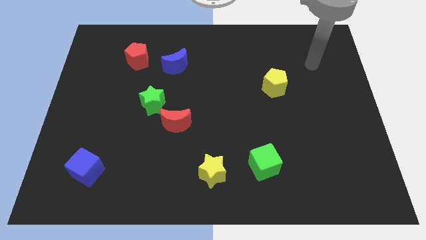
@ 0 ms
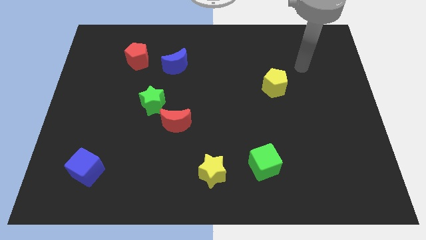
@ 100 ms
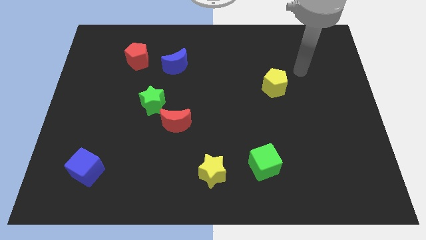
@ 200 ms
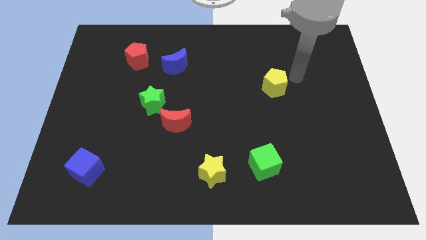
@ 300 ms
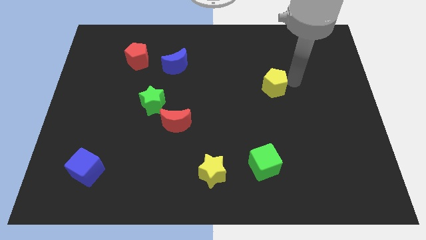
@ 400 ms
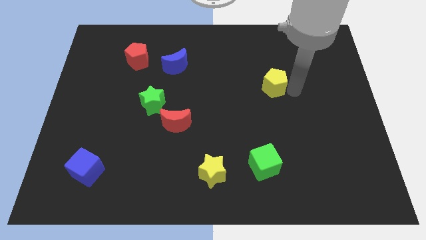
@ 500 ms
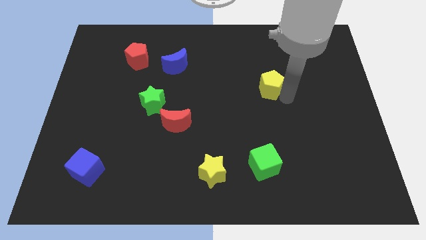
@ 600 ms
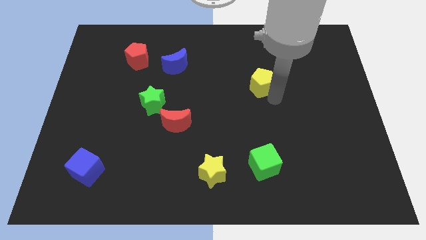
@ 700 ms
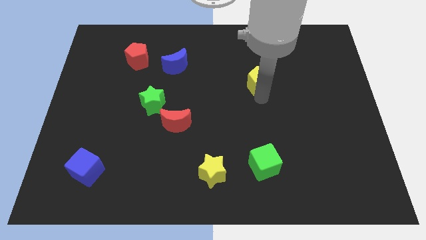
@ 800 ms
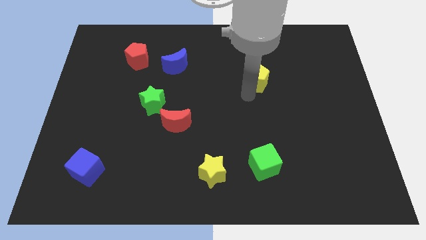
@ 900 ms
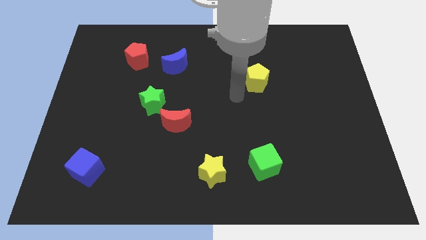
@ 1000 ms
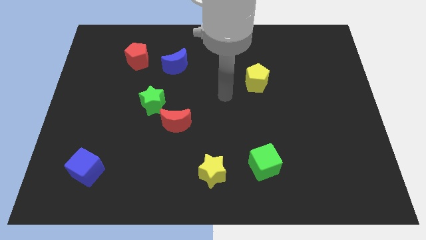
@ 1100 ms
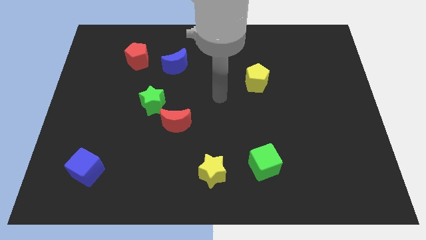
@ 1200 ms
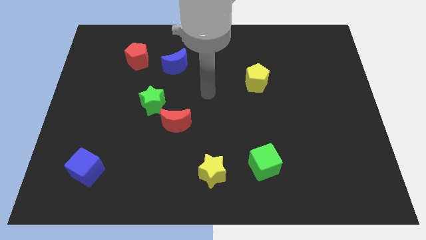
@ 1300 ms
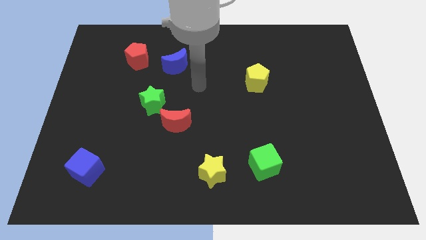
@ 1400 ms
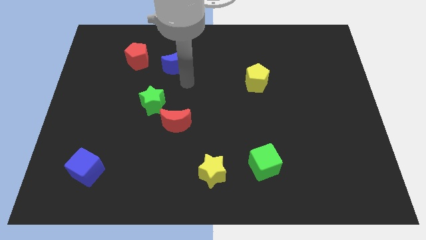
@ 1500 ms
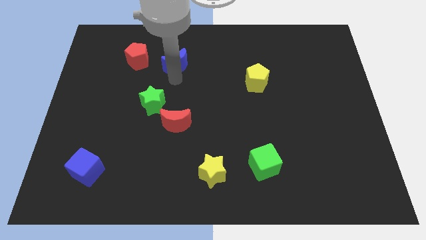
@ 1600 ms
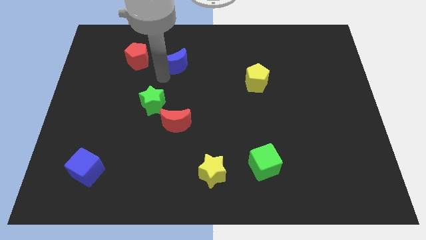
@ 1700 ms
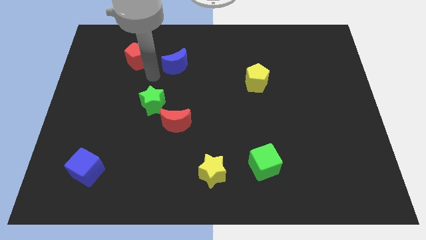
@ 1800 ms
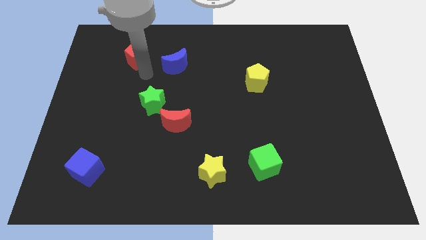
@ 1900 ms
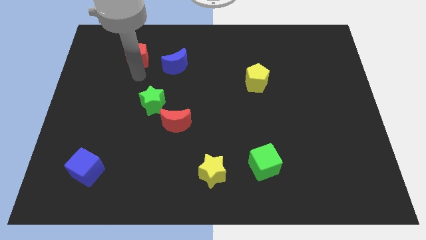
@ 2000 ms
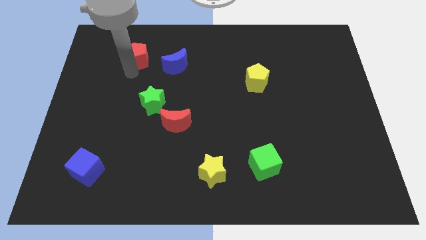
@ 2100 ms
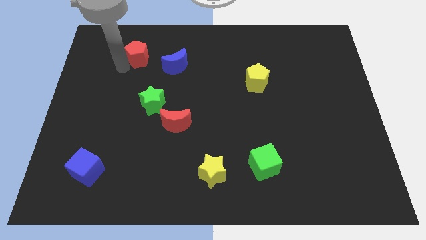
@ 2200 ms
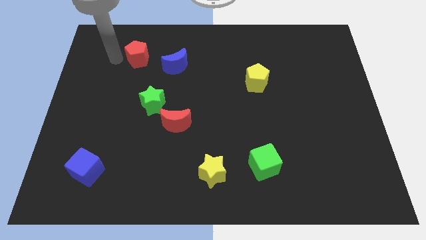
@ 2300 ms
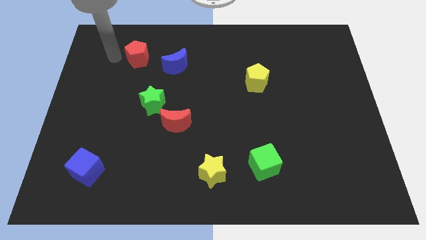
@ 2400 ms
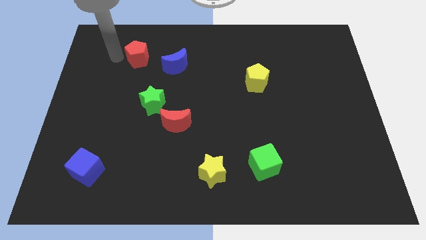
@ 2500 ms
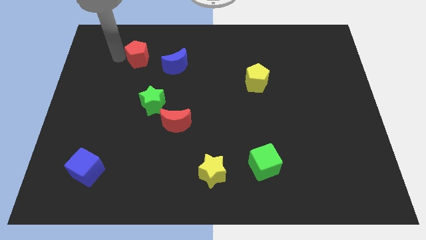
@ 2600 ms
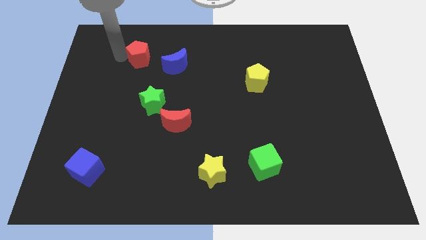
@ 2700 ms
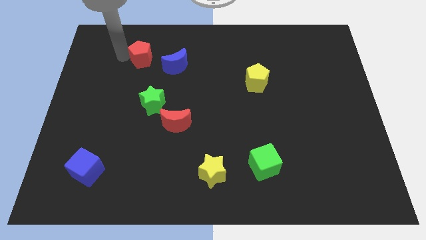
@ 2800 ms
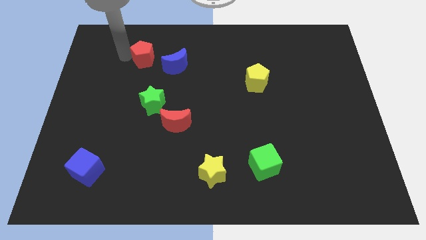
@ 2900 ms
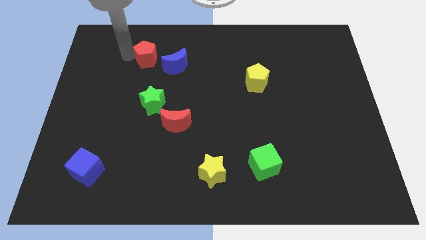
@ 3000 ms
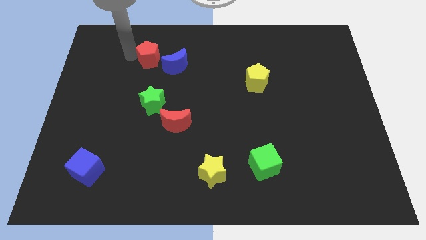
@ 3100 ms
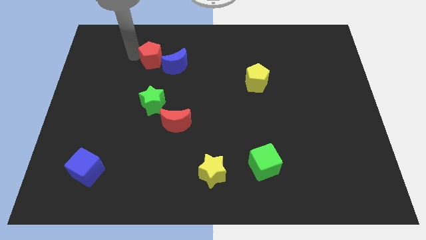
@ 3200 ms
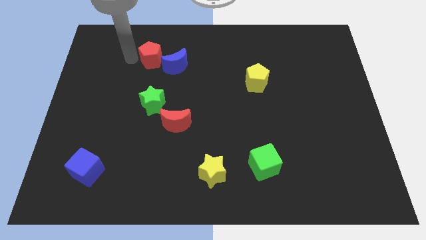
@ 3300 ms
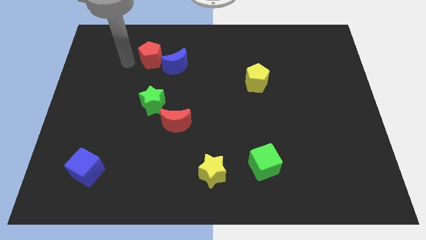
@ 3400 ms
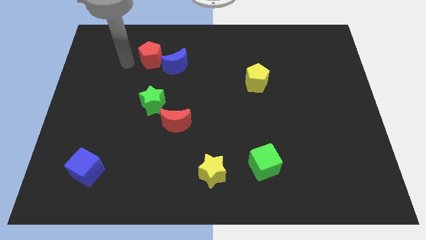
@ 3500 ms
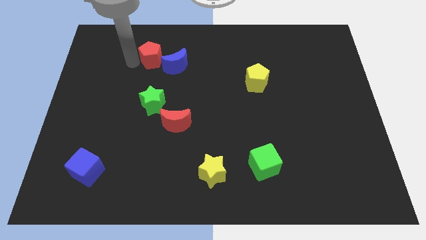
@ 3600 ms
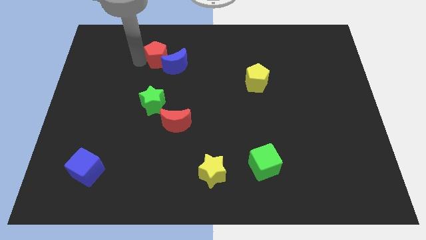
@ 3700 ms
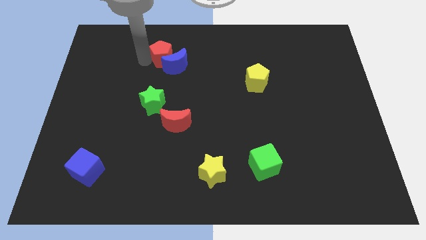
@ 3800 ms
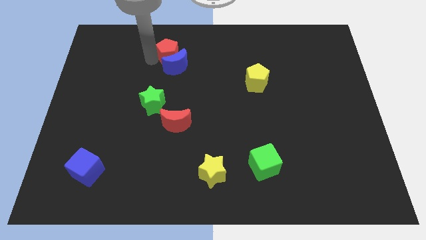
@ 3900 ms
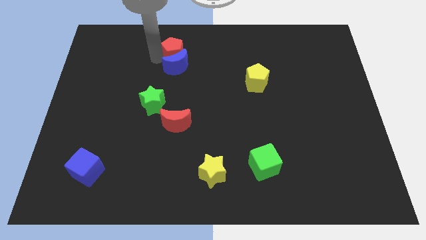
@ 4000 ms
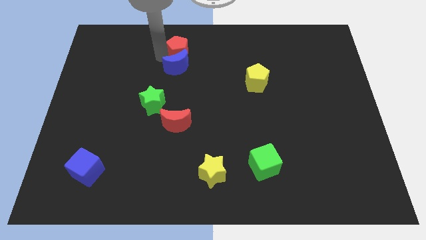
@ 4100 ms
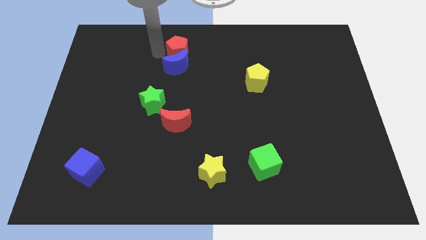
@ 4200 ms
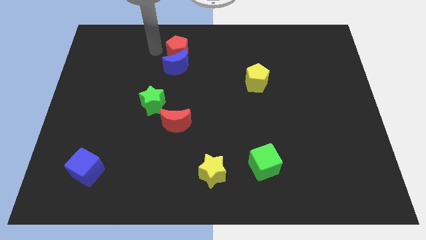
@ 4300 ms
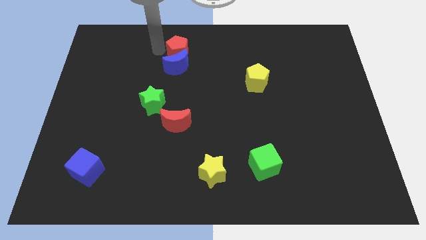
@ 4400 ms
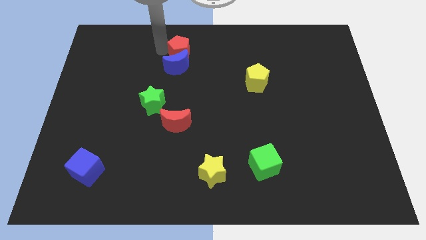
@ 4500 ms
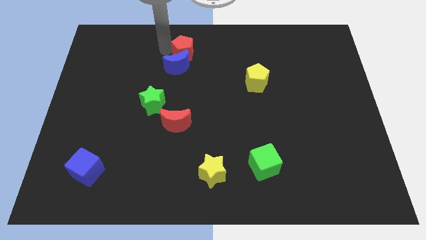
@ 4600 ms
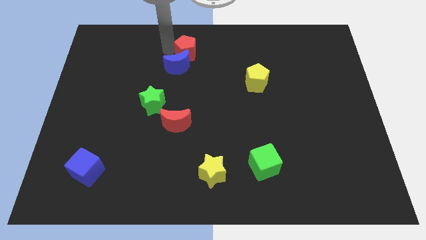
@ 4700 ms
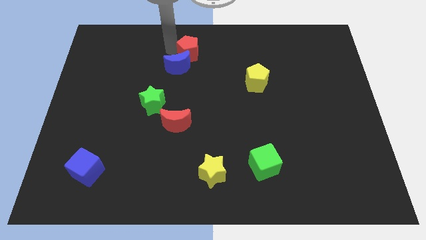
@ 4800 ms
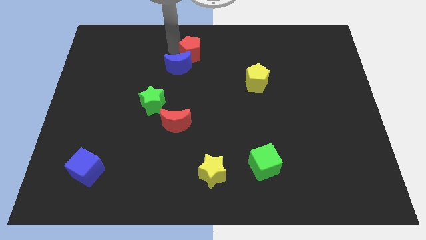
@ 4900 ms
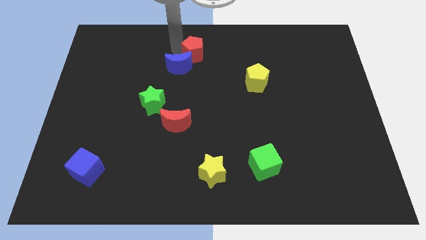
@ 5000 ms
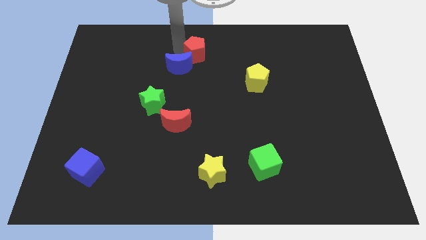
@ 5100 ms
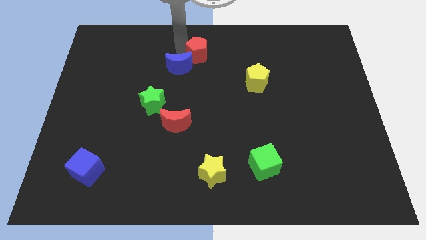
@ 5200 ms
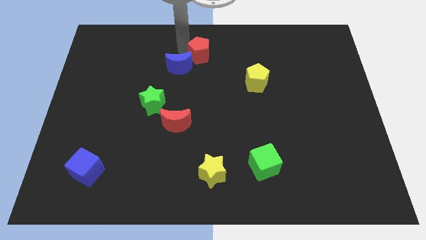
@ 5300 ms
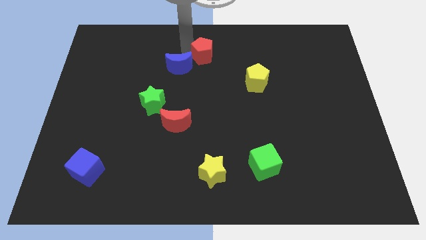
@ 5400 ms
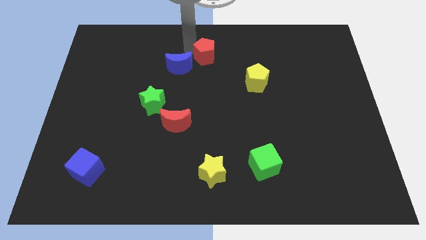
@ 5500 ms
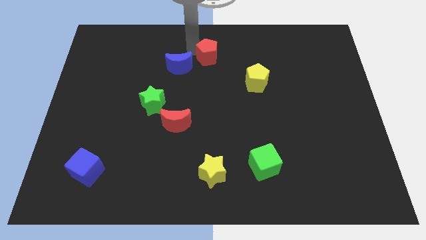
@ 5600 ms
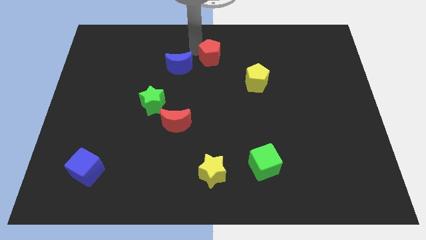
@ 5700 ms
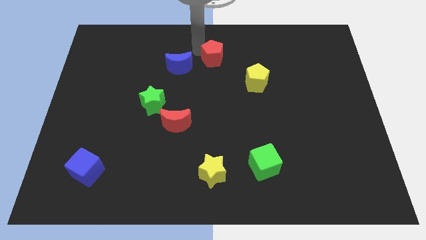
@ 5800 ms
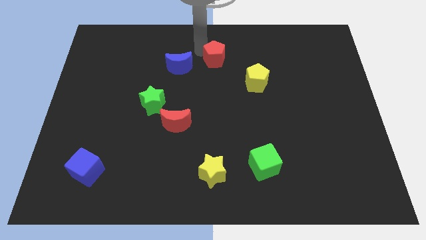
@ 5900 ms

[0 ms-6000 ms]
slide the red pentagon right

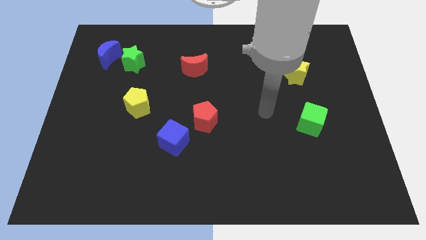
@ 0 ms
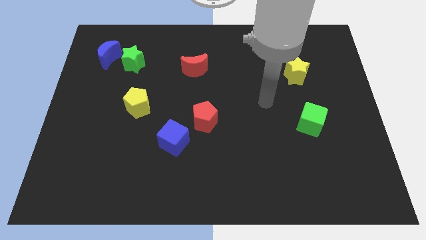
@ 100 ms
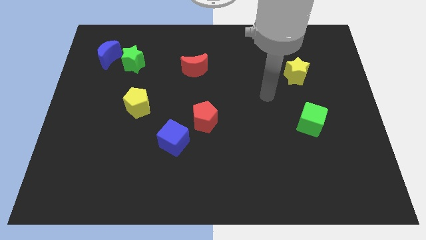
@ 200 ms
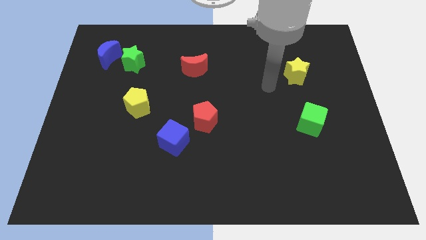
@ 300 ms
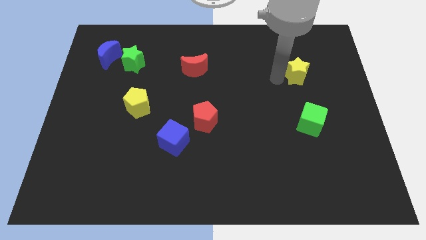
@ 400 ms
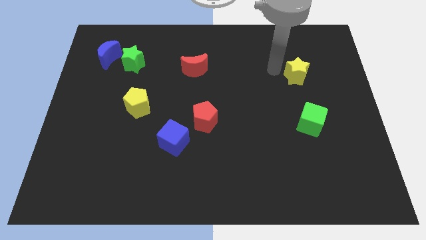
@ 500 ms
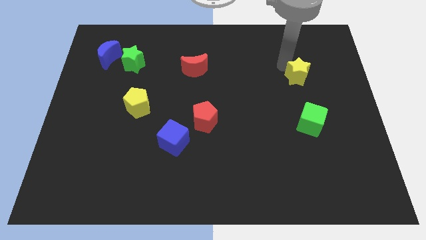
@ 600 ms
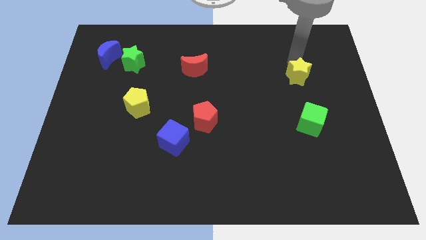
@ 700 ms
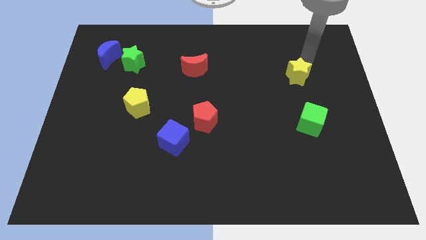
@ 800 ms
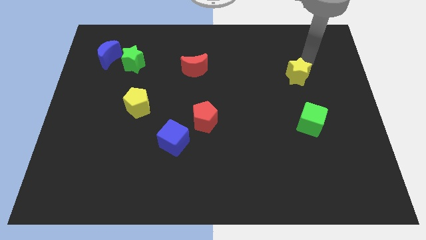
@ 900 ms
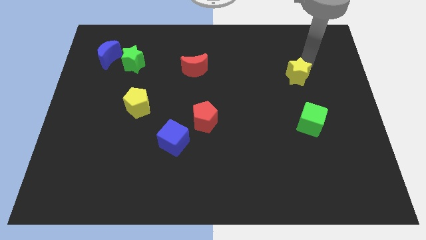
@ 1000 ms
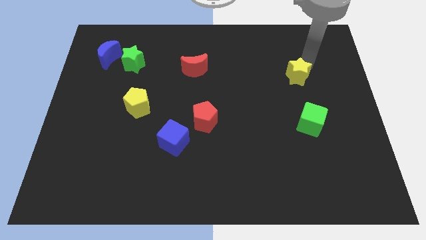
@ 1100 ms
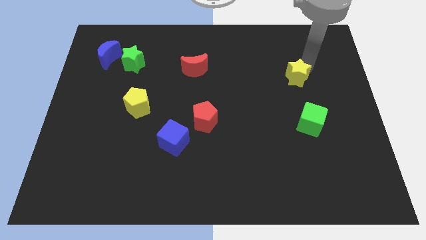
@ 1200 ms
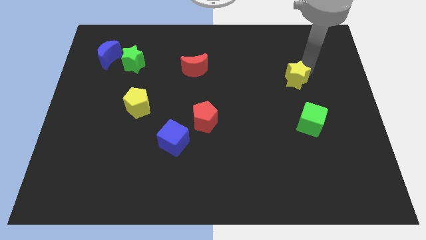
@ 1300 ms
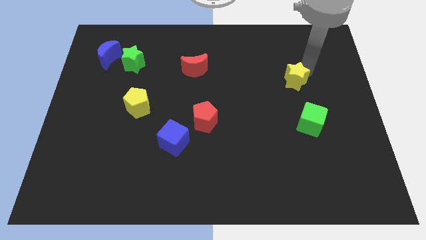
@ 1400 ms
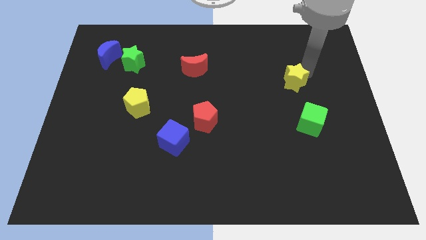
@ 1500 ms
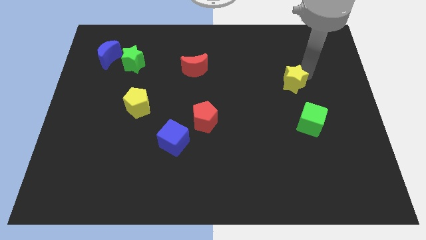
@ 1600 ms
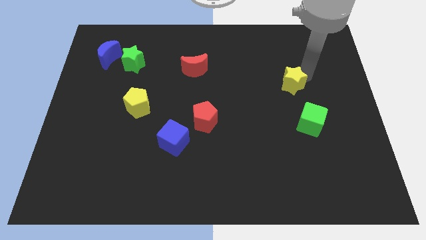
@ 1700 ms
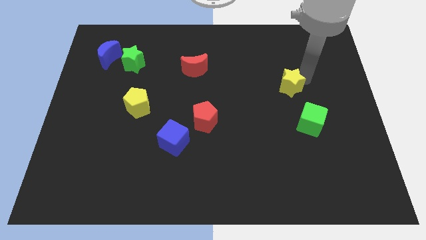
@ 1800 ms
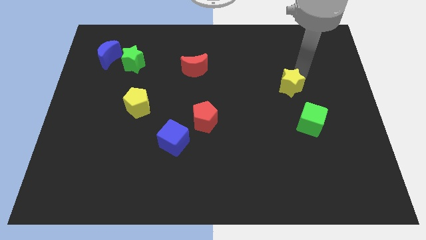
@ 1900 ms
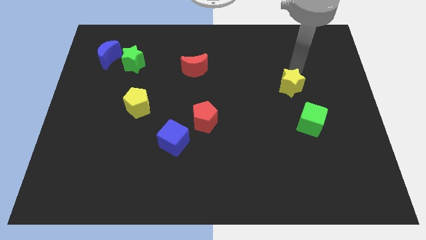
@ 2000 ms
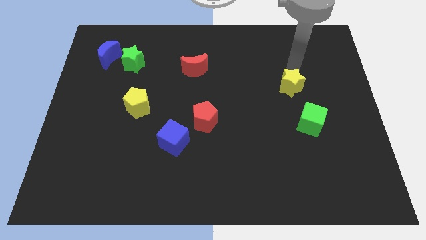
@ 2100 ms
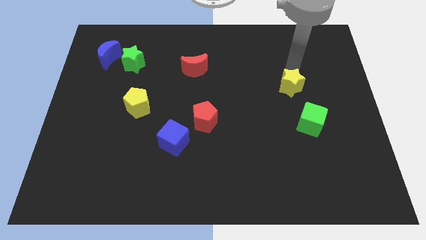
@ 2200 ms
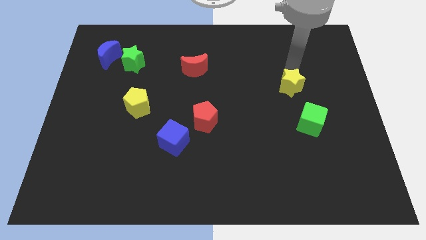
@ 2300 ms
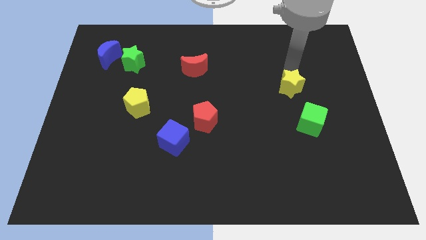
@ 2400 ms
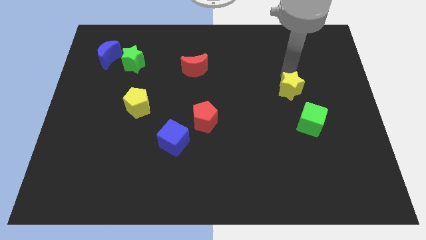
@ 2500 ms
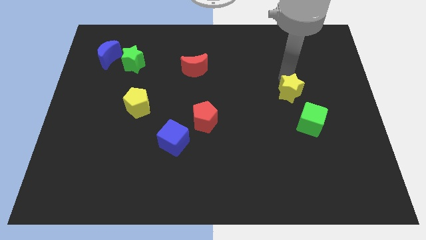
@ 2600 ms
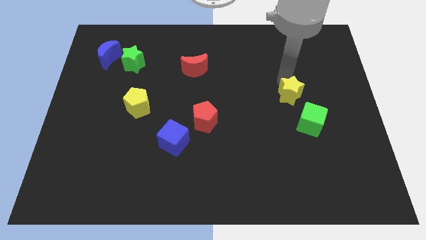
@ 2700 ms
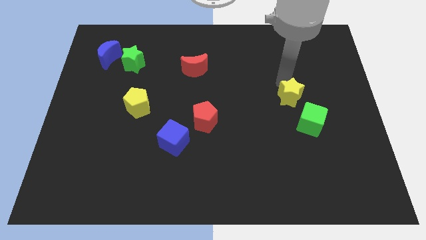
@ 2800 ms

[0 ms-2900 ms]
push the yellow star down a bit
